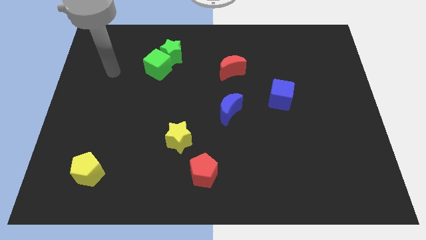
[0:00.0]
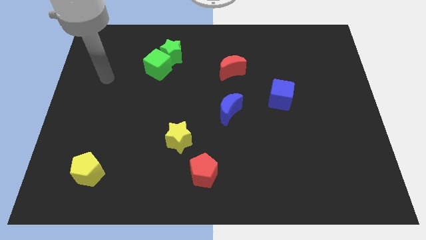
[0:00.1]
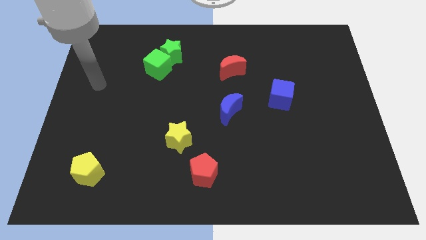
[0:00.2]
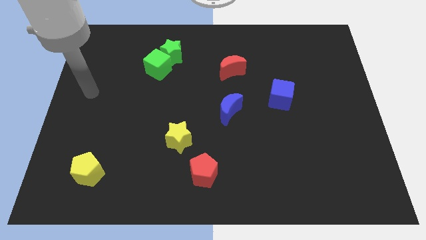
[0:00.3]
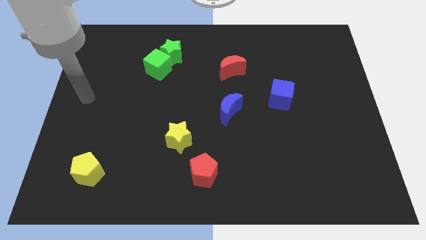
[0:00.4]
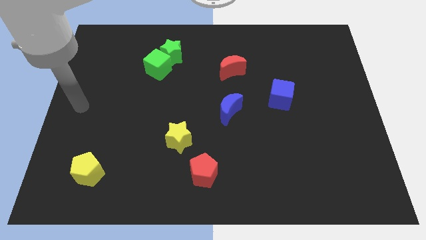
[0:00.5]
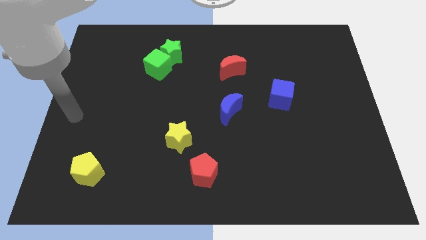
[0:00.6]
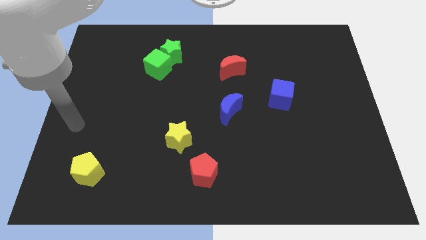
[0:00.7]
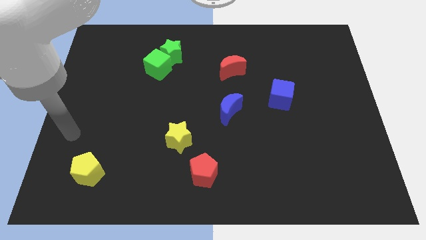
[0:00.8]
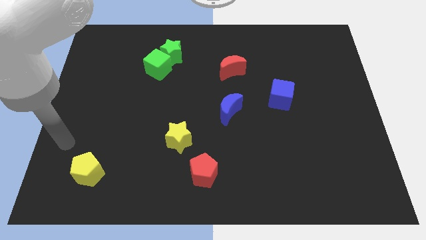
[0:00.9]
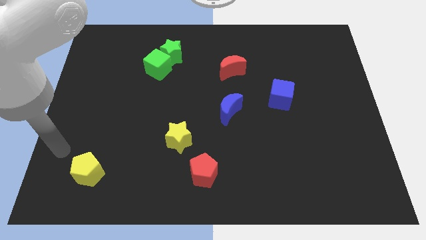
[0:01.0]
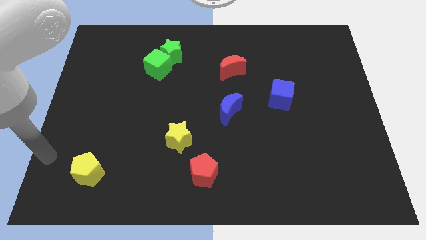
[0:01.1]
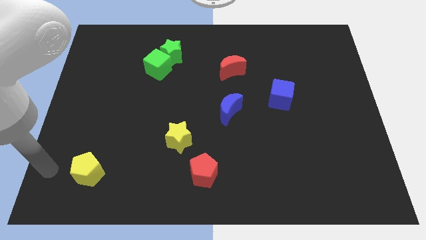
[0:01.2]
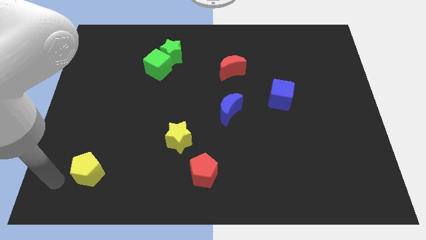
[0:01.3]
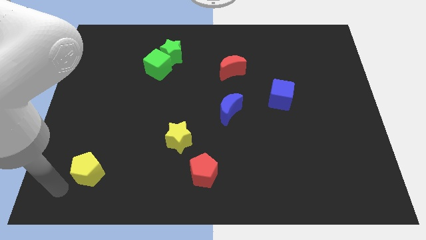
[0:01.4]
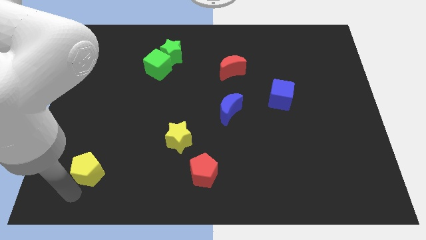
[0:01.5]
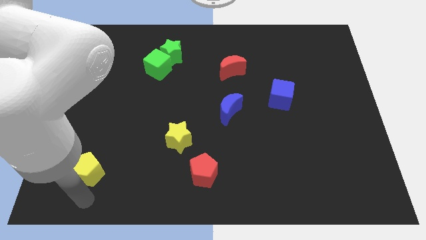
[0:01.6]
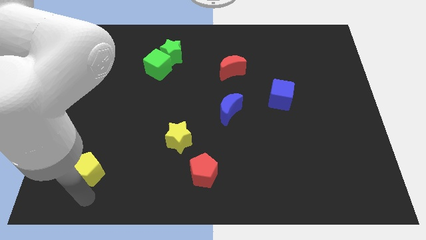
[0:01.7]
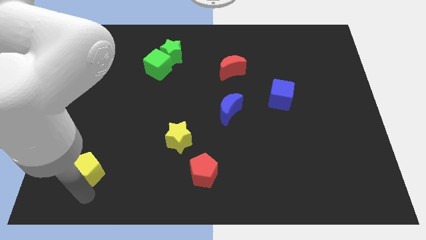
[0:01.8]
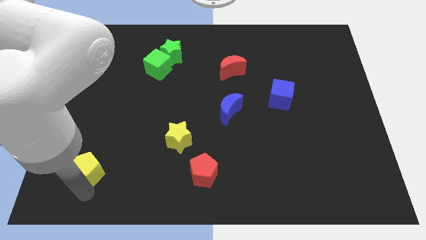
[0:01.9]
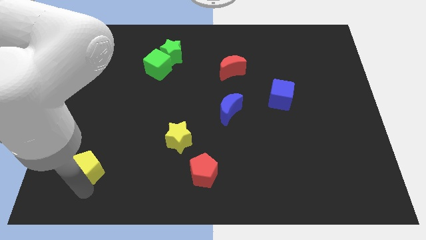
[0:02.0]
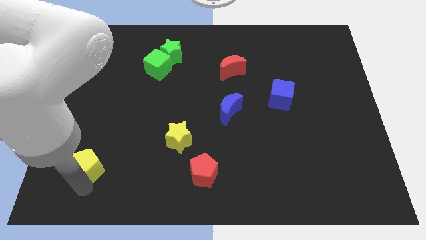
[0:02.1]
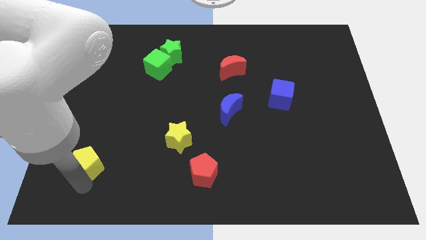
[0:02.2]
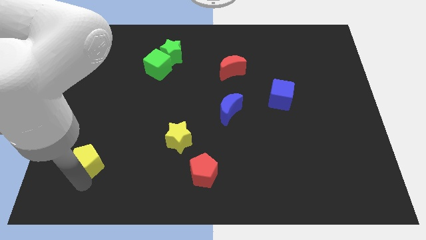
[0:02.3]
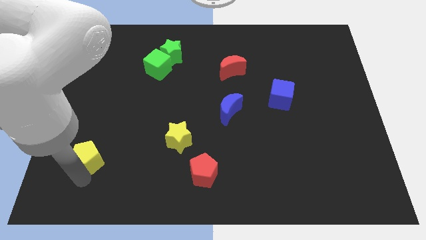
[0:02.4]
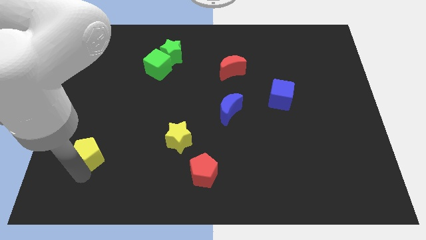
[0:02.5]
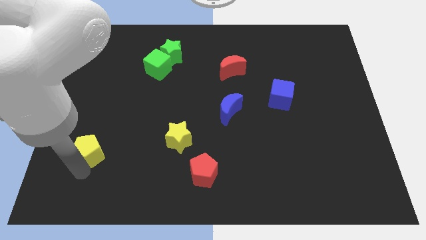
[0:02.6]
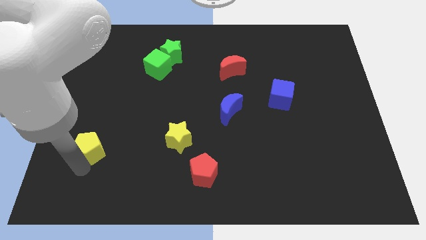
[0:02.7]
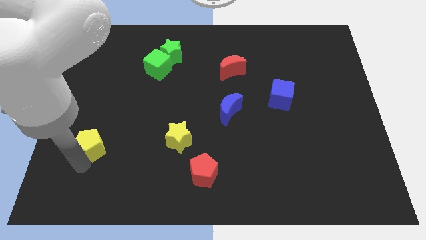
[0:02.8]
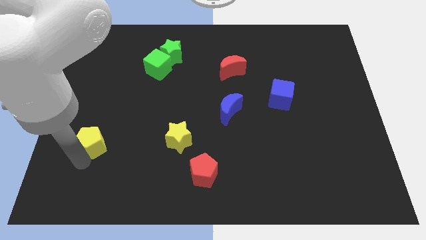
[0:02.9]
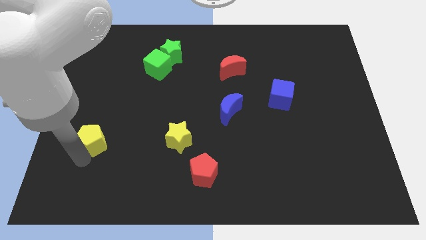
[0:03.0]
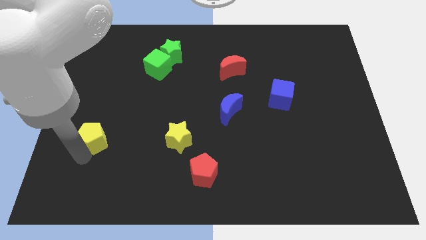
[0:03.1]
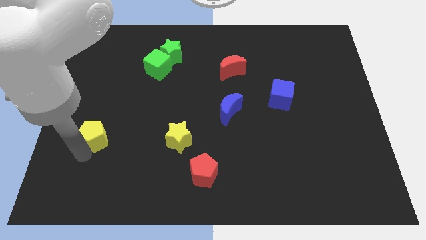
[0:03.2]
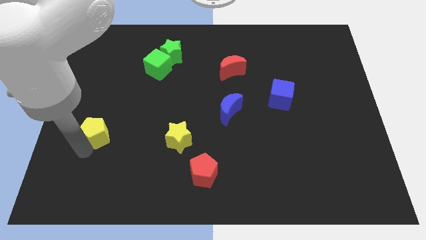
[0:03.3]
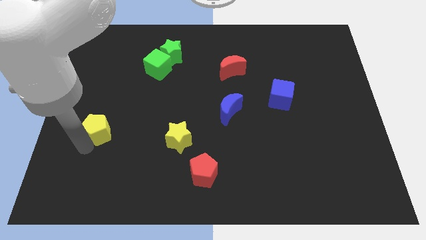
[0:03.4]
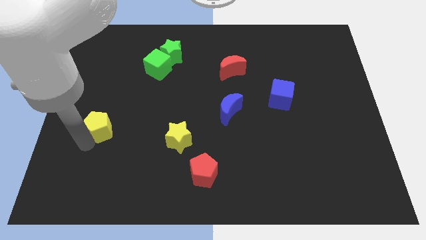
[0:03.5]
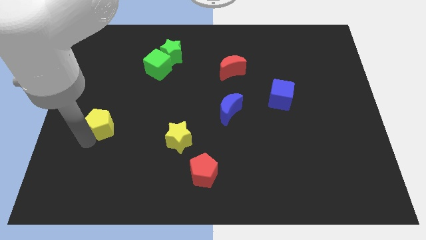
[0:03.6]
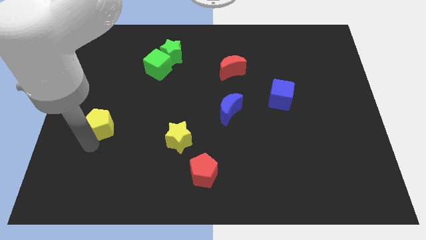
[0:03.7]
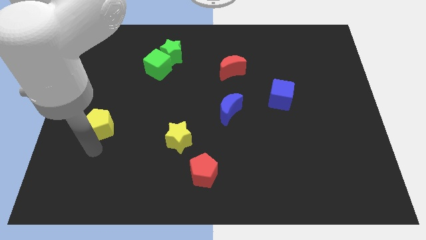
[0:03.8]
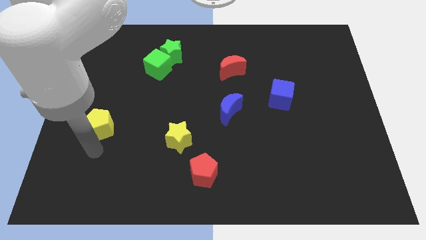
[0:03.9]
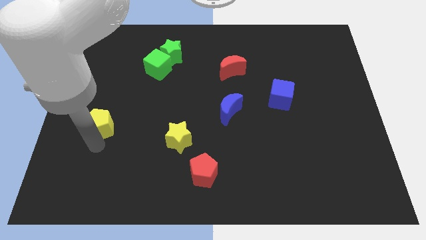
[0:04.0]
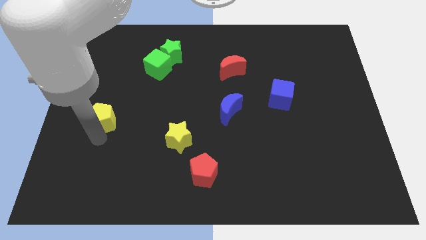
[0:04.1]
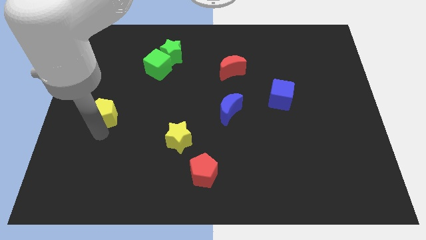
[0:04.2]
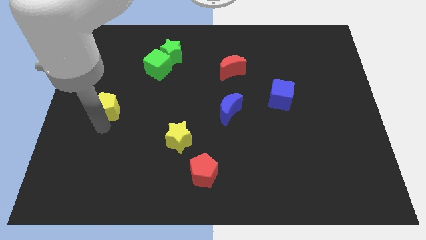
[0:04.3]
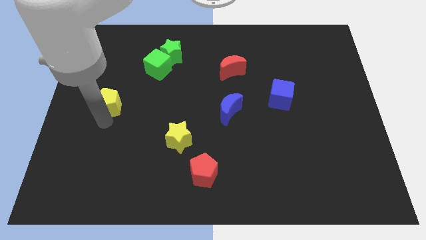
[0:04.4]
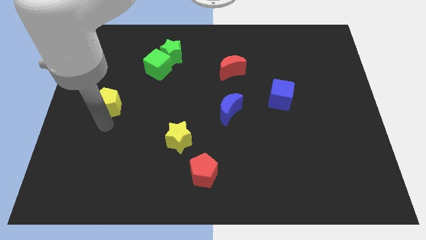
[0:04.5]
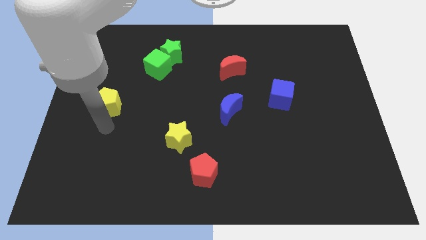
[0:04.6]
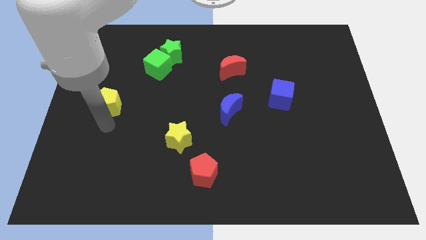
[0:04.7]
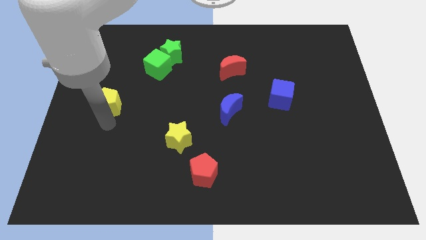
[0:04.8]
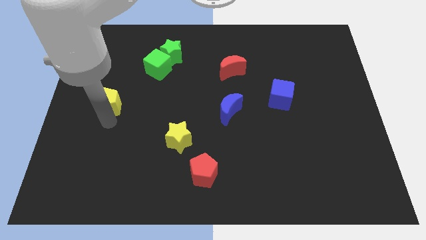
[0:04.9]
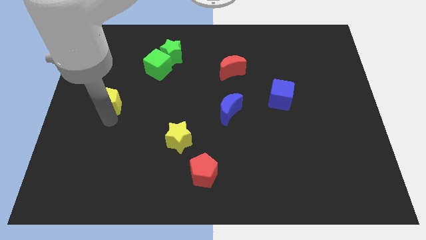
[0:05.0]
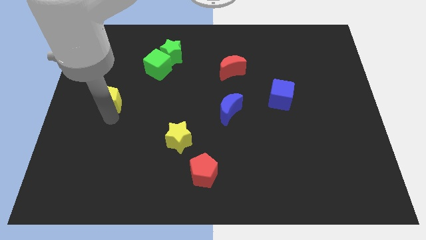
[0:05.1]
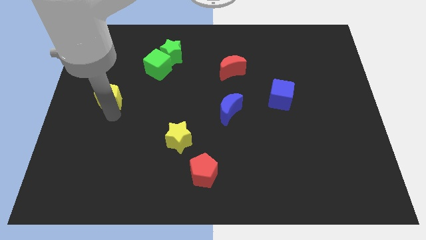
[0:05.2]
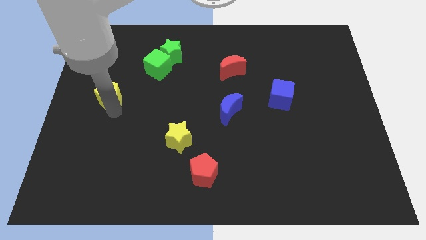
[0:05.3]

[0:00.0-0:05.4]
slide the yellow pentagon up

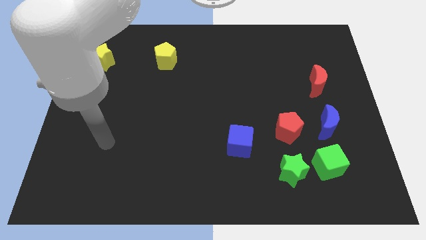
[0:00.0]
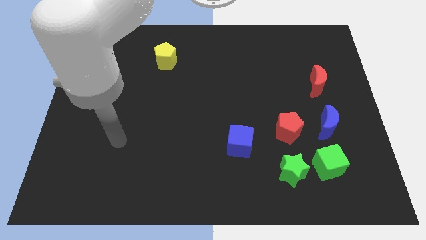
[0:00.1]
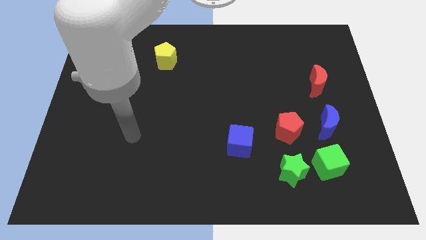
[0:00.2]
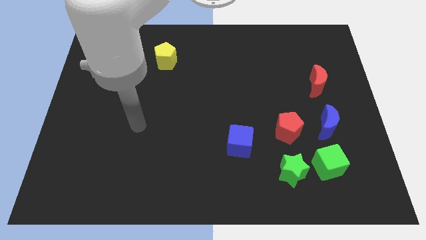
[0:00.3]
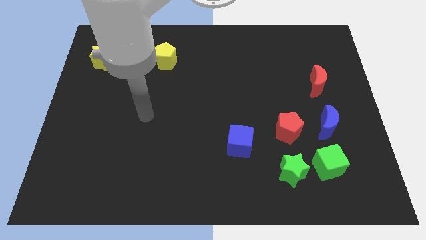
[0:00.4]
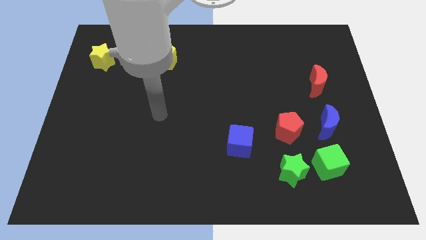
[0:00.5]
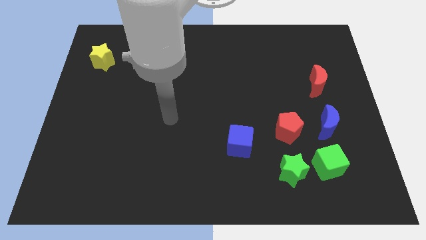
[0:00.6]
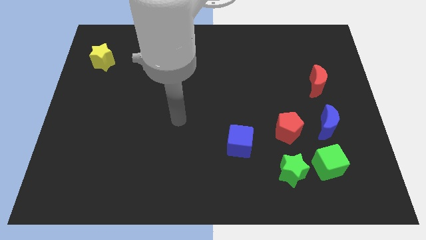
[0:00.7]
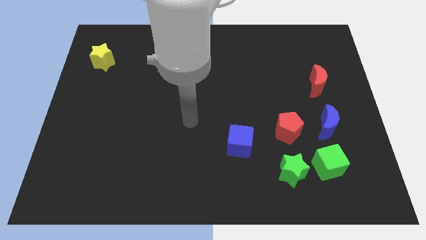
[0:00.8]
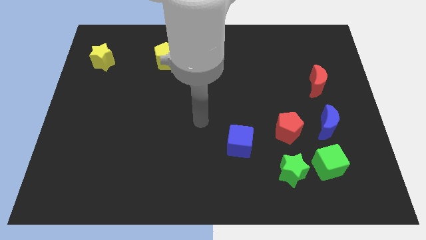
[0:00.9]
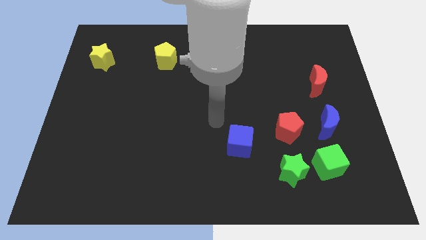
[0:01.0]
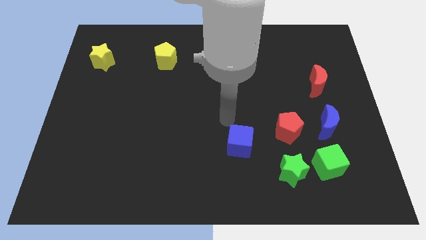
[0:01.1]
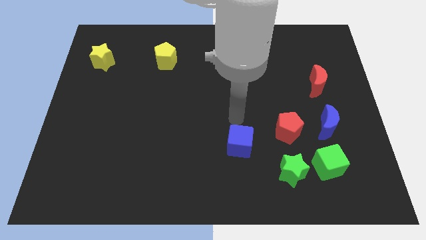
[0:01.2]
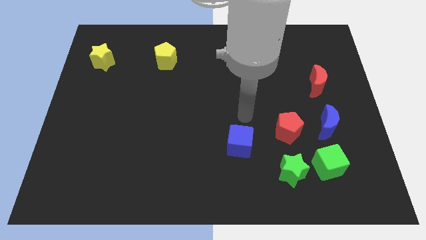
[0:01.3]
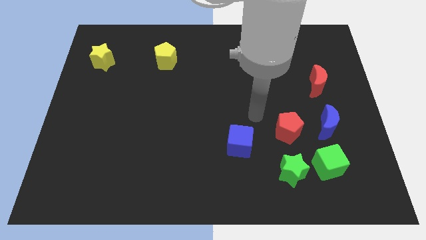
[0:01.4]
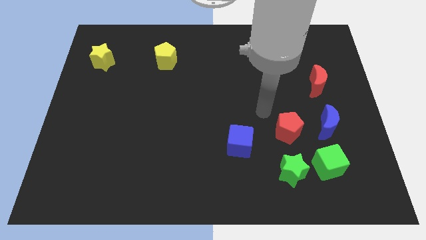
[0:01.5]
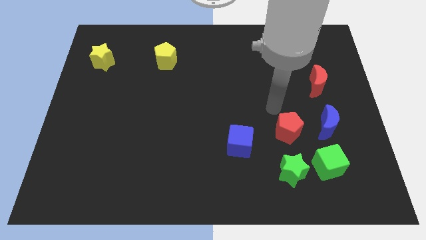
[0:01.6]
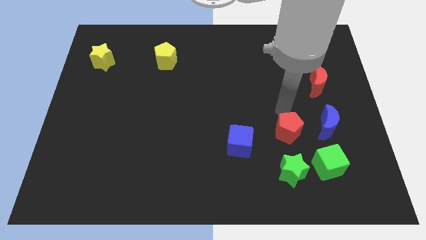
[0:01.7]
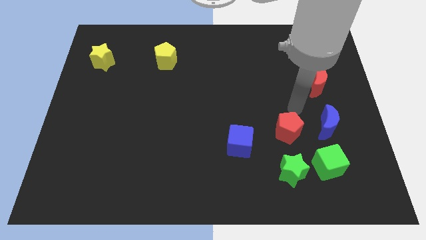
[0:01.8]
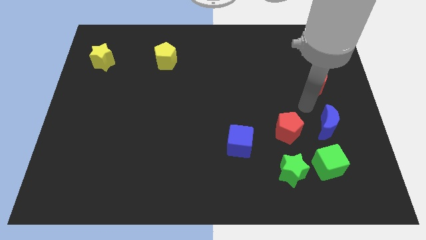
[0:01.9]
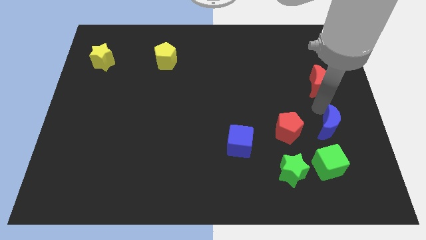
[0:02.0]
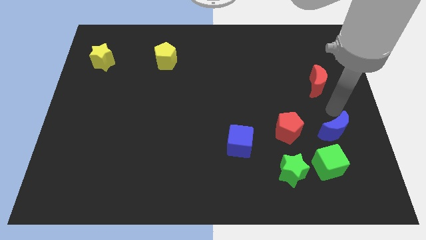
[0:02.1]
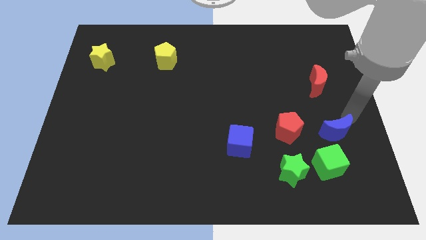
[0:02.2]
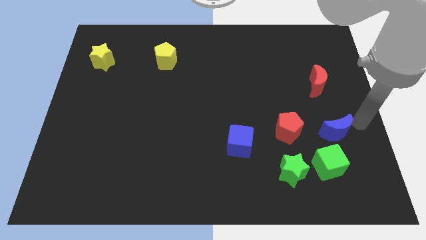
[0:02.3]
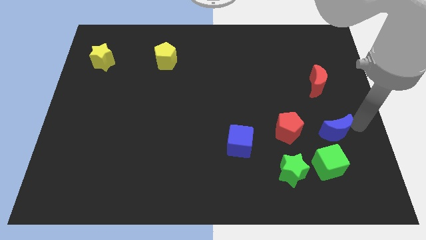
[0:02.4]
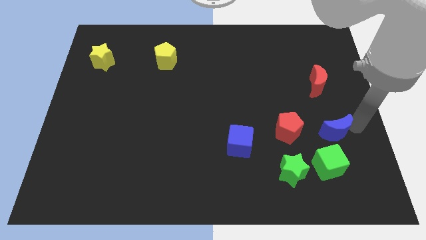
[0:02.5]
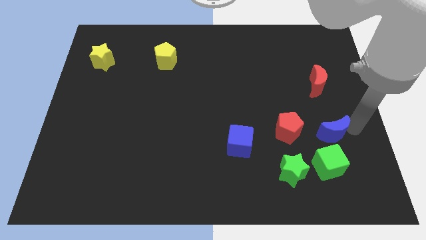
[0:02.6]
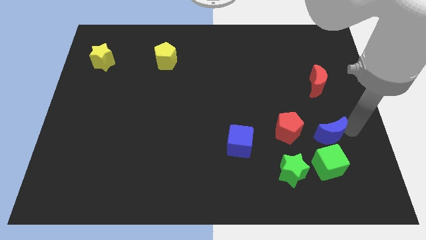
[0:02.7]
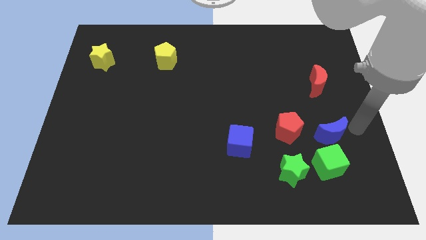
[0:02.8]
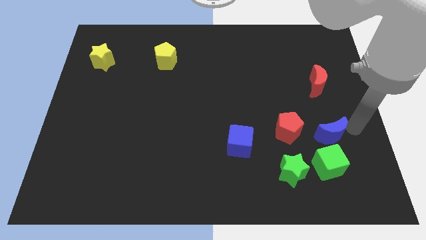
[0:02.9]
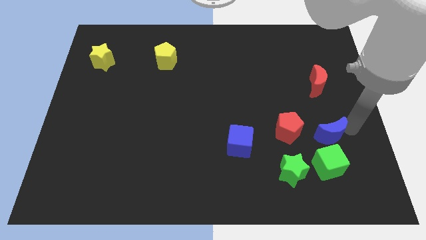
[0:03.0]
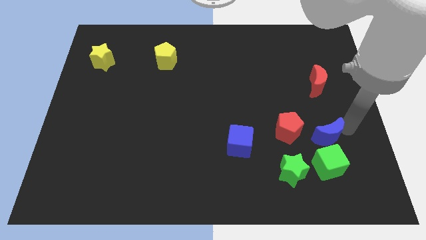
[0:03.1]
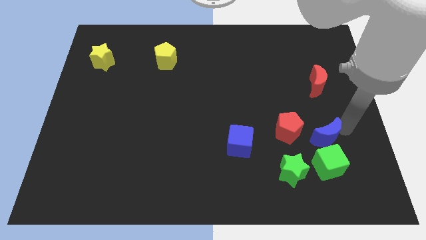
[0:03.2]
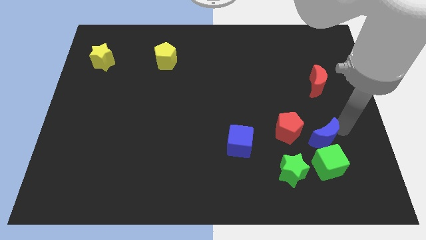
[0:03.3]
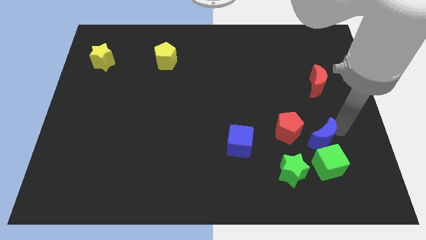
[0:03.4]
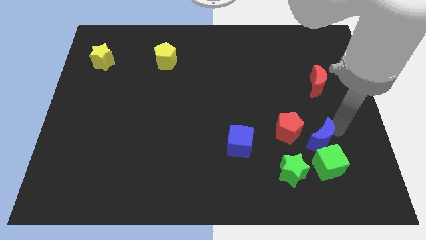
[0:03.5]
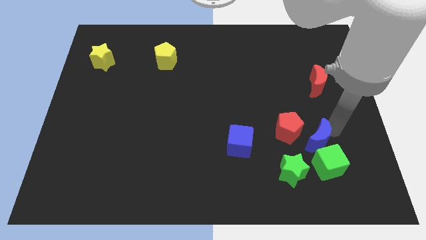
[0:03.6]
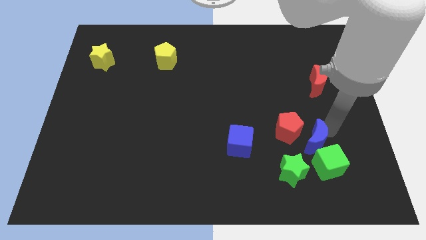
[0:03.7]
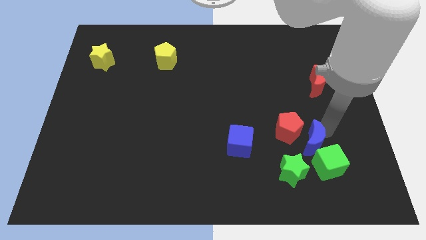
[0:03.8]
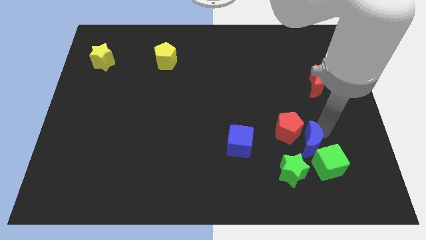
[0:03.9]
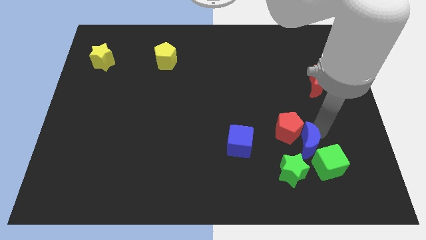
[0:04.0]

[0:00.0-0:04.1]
slightly move the blue moon downwards and to the left
